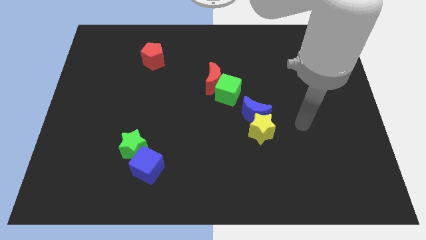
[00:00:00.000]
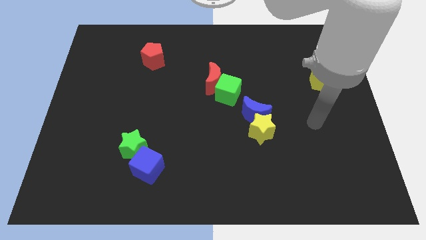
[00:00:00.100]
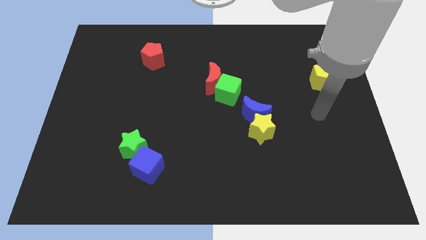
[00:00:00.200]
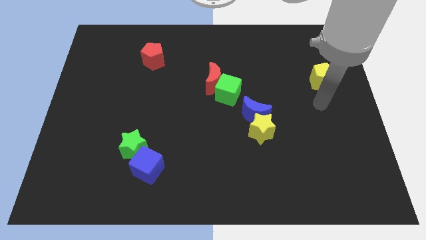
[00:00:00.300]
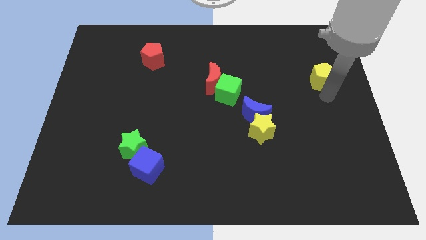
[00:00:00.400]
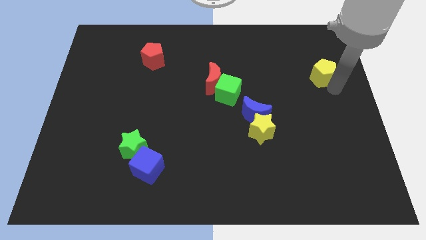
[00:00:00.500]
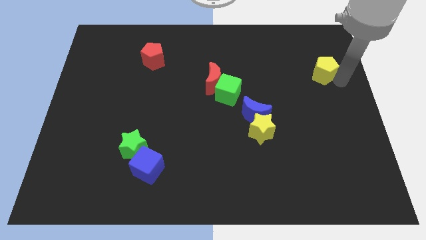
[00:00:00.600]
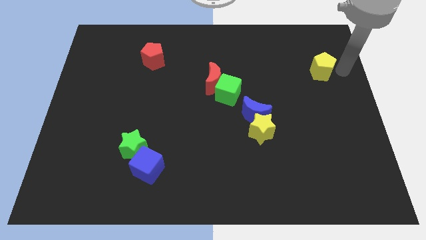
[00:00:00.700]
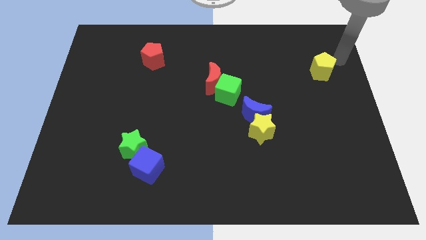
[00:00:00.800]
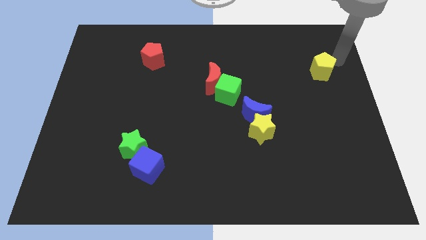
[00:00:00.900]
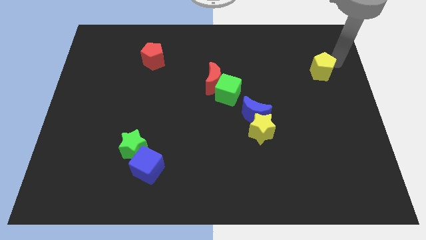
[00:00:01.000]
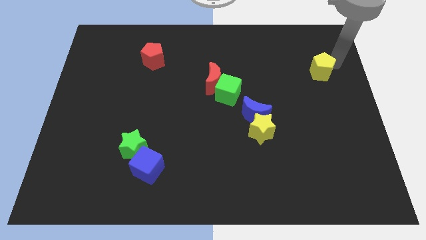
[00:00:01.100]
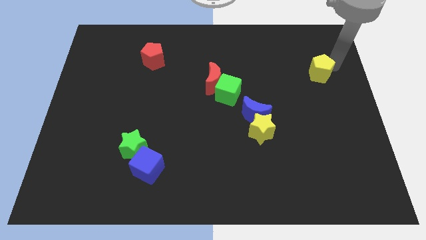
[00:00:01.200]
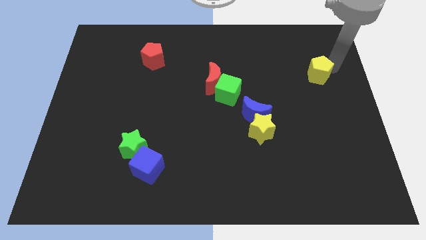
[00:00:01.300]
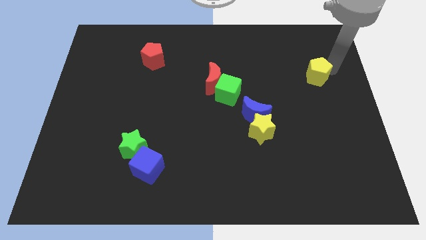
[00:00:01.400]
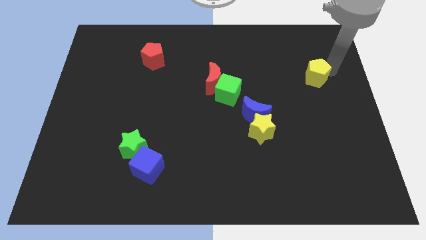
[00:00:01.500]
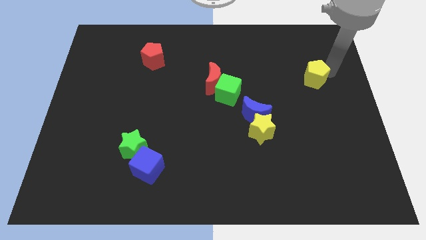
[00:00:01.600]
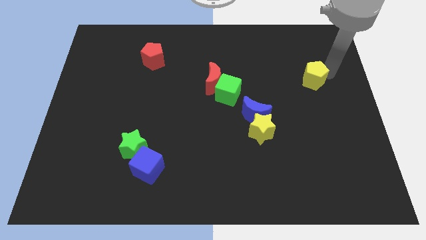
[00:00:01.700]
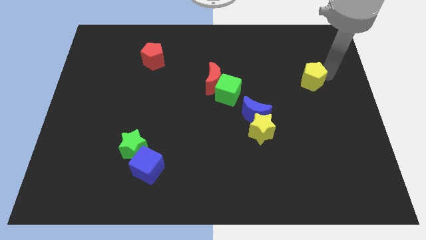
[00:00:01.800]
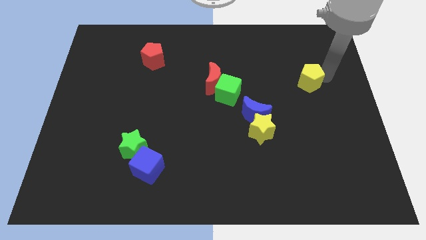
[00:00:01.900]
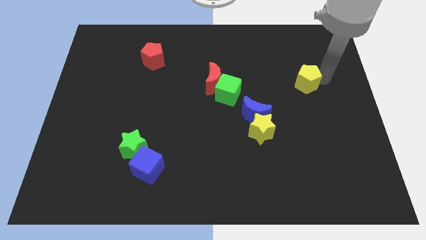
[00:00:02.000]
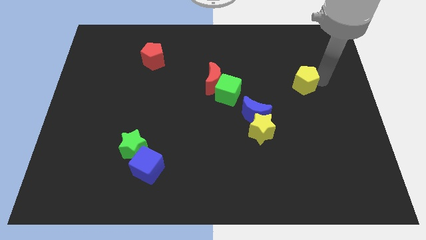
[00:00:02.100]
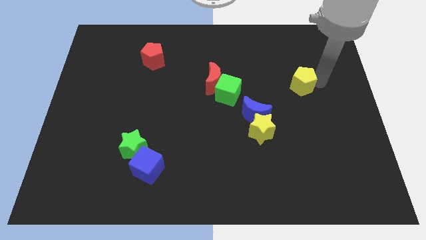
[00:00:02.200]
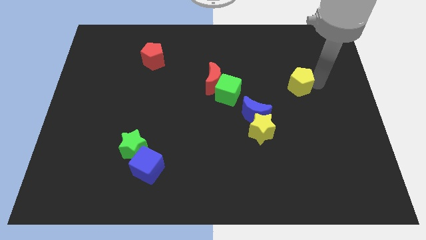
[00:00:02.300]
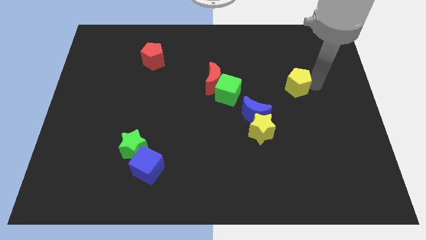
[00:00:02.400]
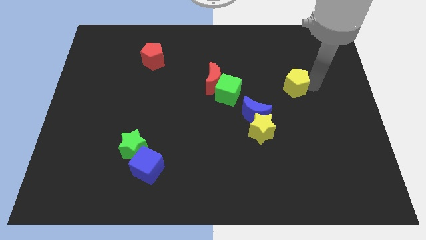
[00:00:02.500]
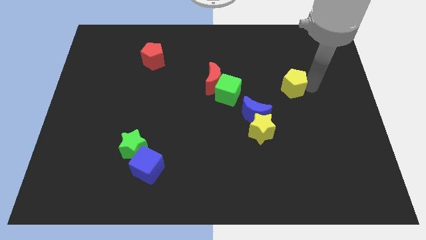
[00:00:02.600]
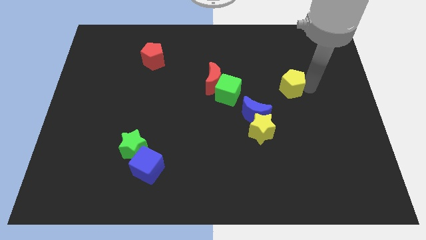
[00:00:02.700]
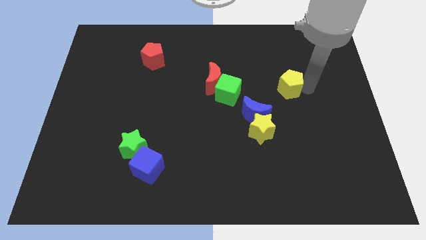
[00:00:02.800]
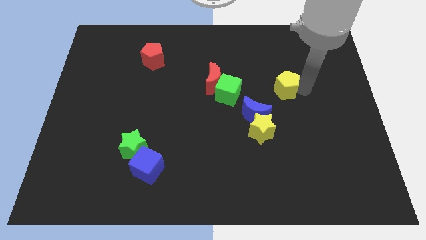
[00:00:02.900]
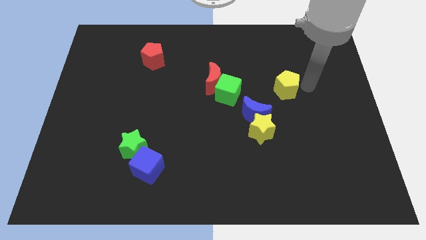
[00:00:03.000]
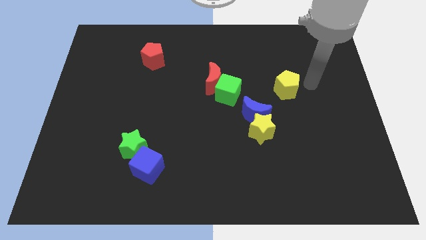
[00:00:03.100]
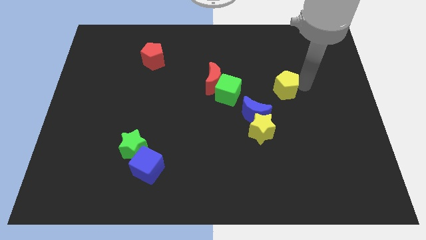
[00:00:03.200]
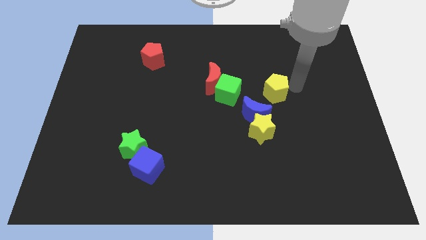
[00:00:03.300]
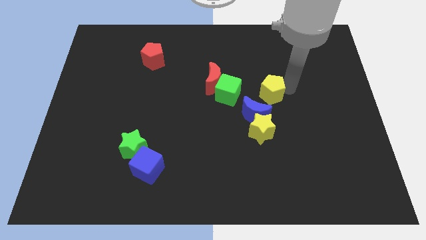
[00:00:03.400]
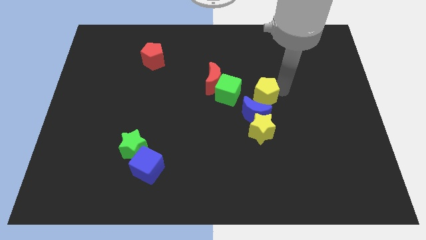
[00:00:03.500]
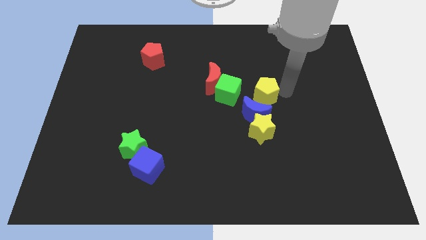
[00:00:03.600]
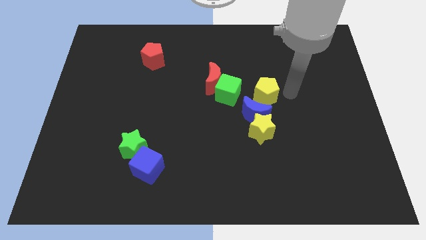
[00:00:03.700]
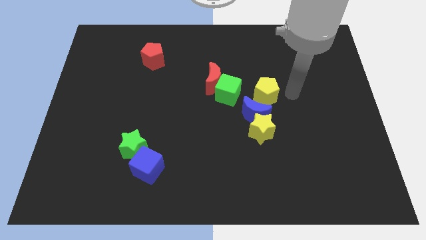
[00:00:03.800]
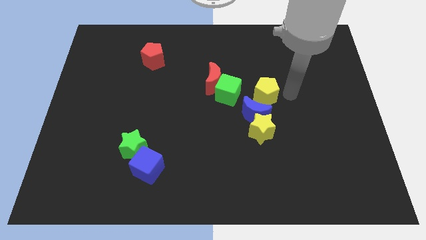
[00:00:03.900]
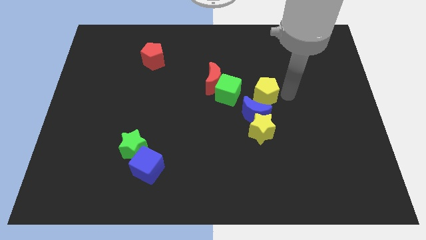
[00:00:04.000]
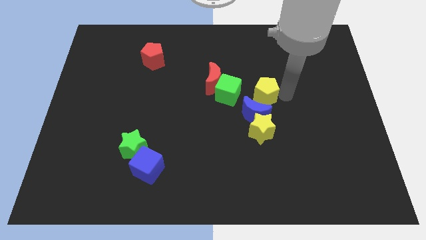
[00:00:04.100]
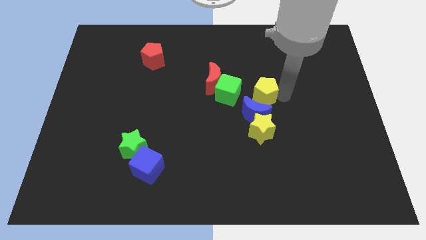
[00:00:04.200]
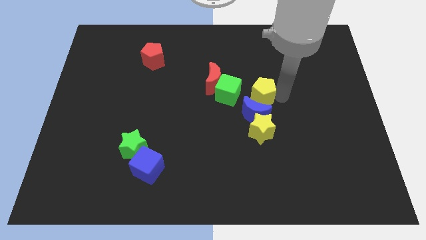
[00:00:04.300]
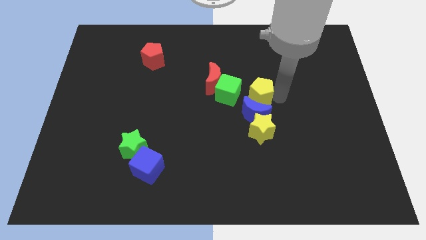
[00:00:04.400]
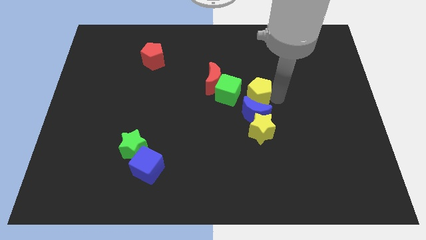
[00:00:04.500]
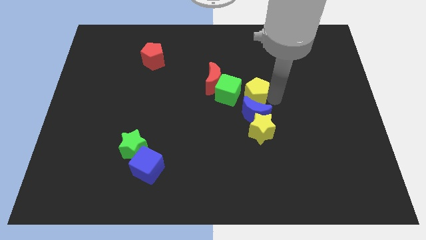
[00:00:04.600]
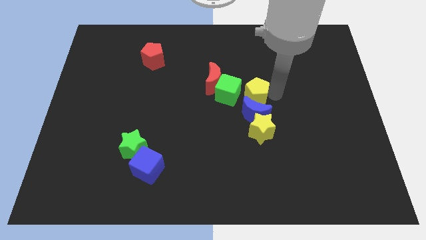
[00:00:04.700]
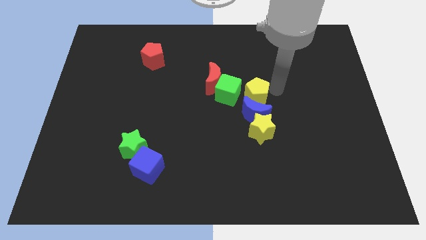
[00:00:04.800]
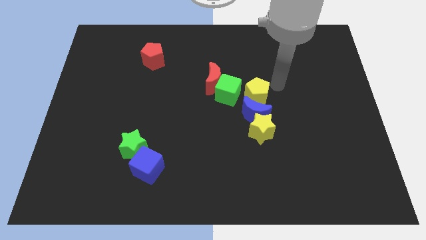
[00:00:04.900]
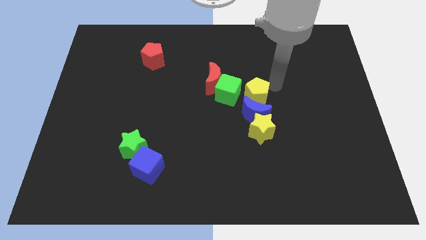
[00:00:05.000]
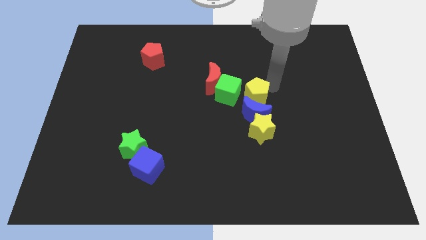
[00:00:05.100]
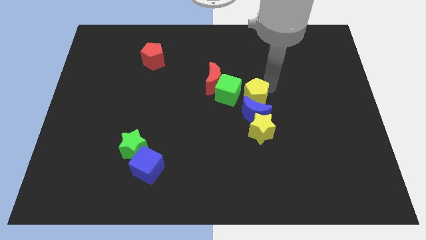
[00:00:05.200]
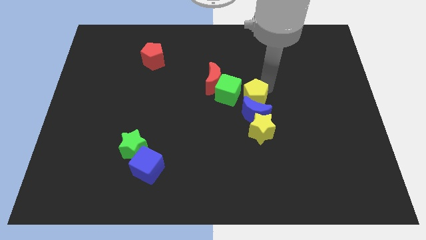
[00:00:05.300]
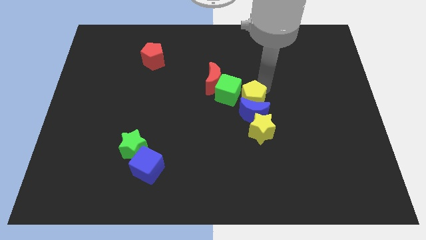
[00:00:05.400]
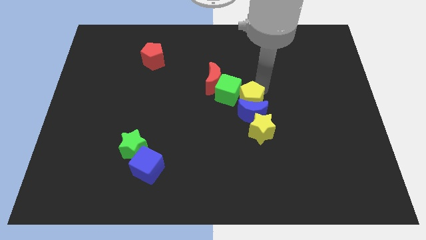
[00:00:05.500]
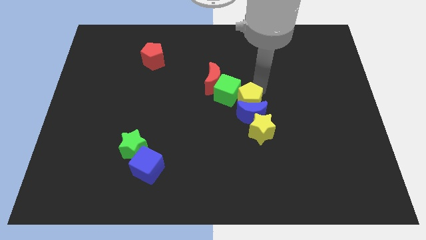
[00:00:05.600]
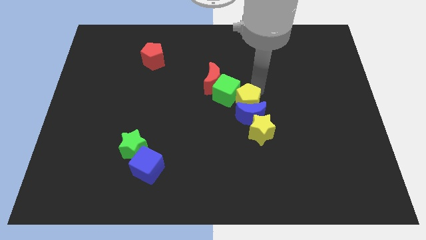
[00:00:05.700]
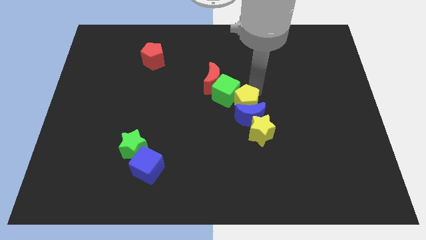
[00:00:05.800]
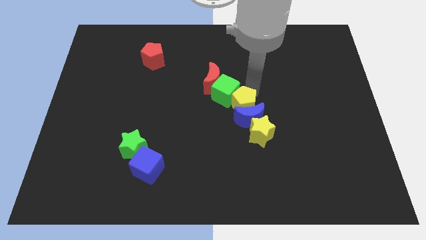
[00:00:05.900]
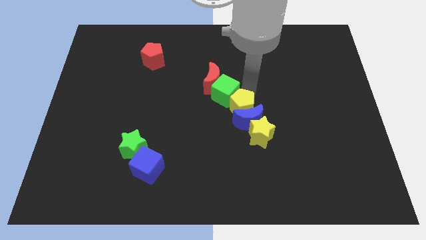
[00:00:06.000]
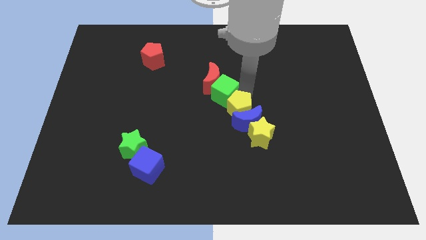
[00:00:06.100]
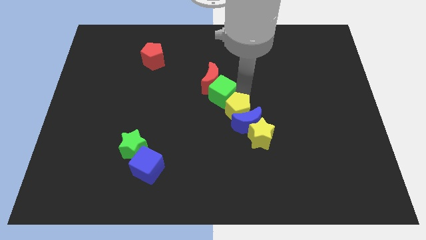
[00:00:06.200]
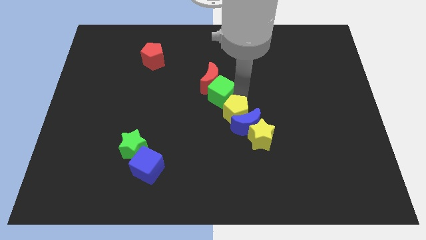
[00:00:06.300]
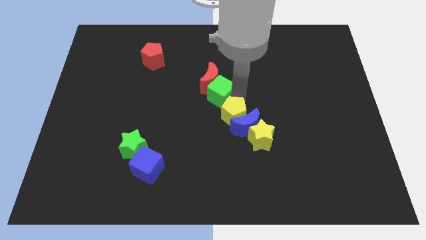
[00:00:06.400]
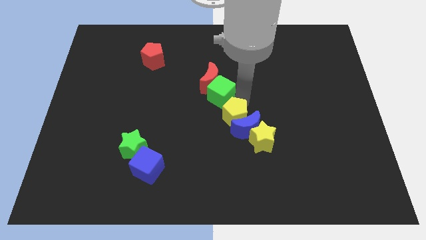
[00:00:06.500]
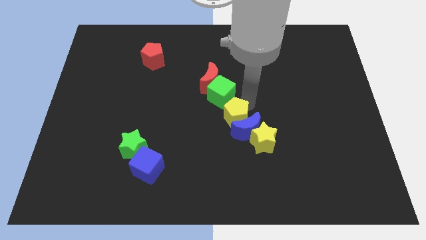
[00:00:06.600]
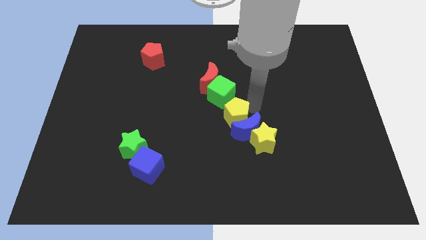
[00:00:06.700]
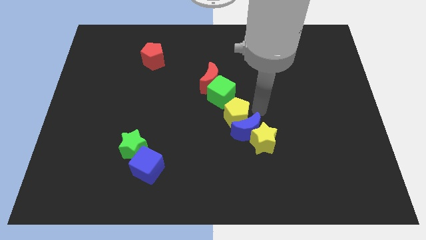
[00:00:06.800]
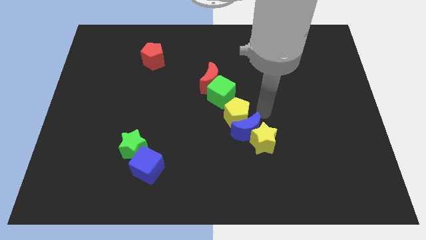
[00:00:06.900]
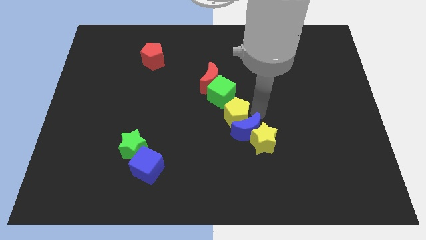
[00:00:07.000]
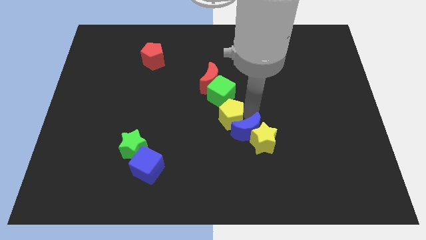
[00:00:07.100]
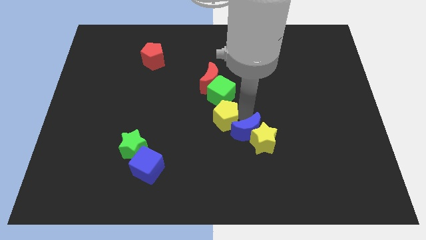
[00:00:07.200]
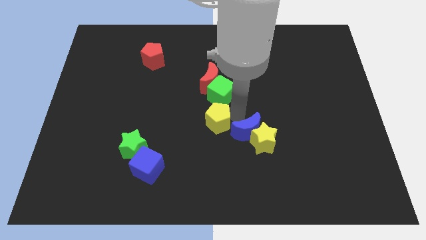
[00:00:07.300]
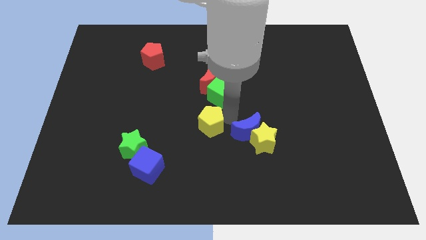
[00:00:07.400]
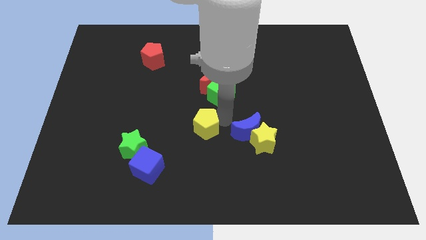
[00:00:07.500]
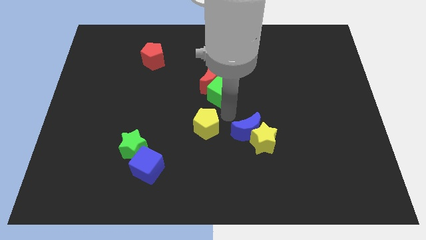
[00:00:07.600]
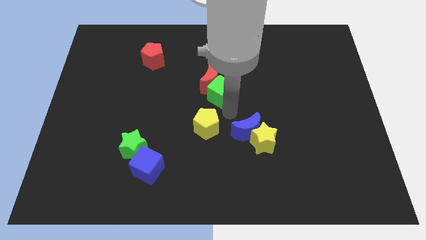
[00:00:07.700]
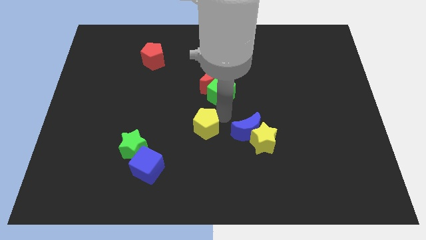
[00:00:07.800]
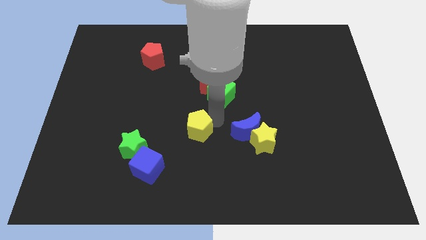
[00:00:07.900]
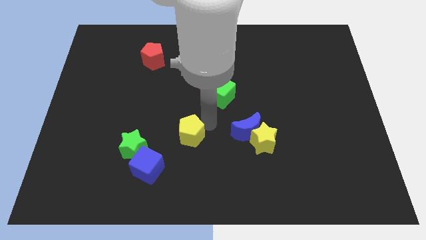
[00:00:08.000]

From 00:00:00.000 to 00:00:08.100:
slide the yellow pentagon to the top right of the blue cube
